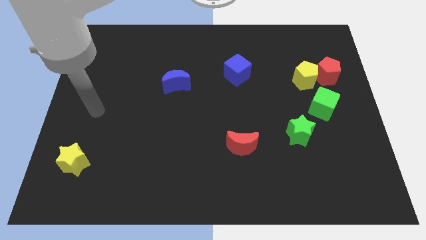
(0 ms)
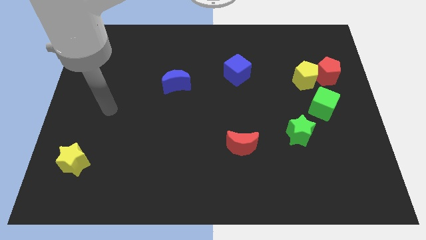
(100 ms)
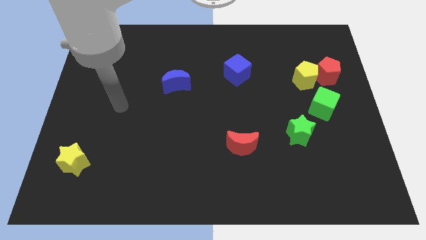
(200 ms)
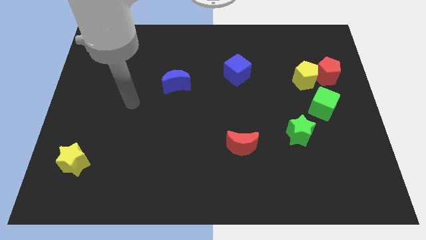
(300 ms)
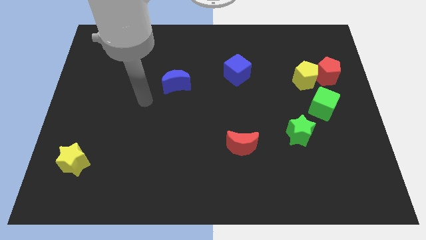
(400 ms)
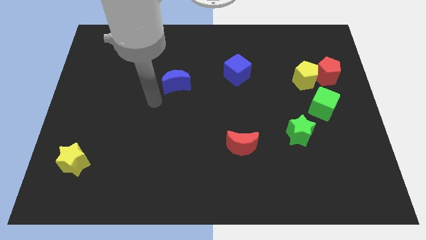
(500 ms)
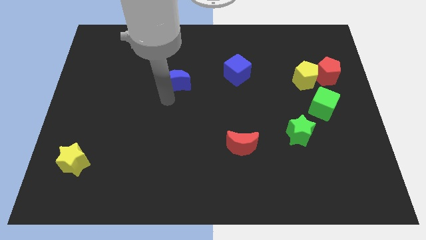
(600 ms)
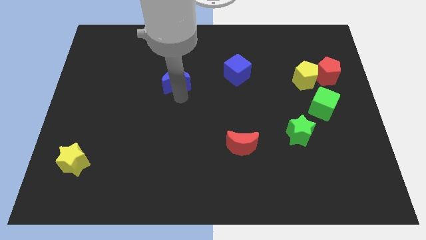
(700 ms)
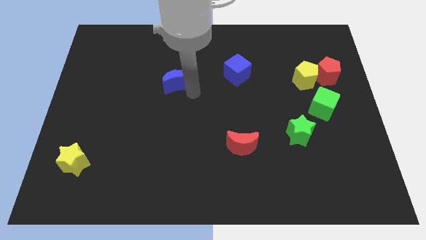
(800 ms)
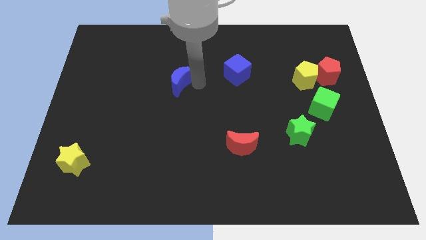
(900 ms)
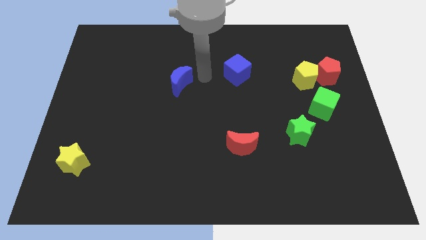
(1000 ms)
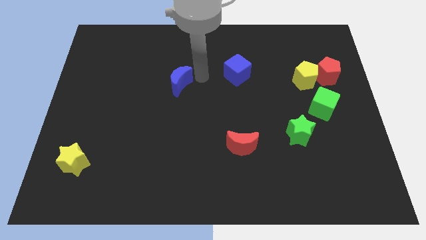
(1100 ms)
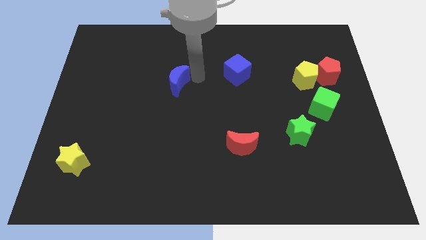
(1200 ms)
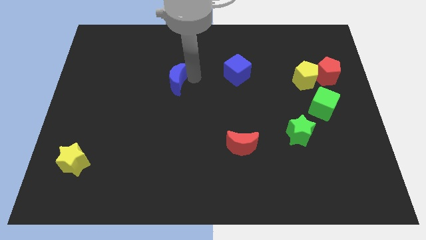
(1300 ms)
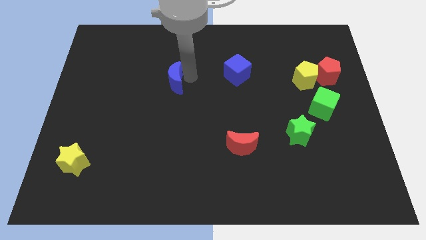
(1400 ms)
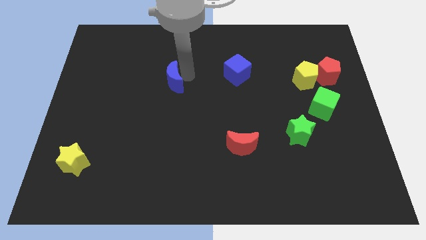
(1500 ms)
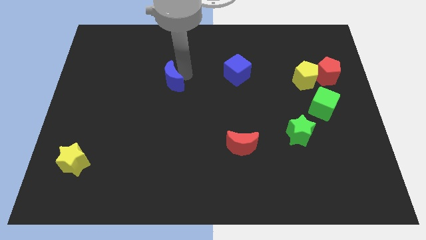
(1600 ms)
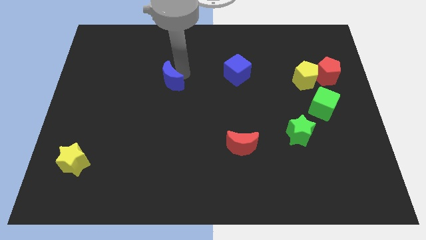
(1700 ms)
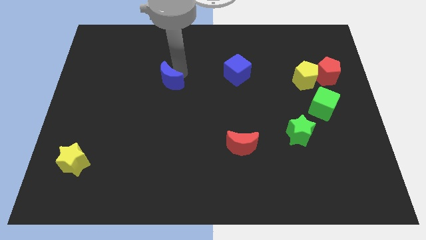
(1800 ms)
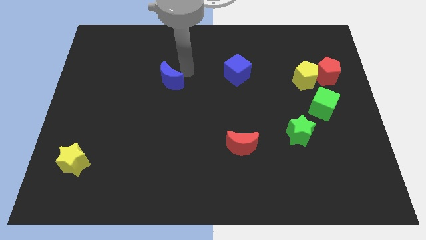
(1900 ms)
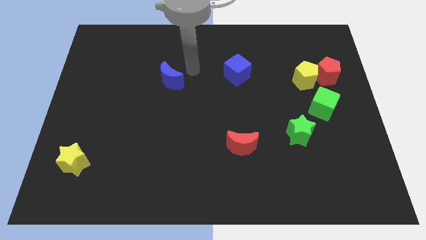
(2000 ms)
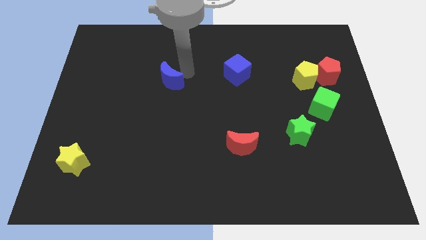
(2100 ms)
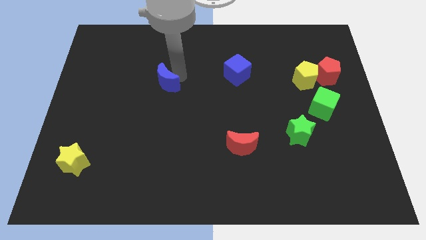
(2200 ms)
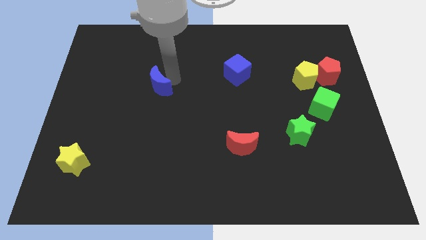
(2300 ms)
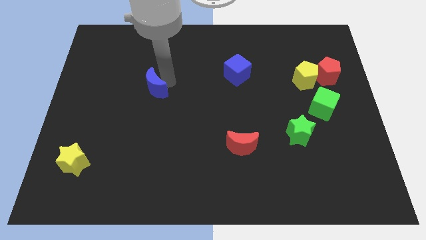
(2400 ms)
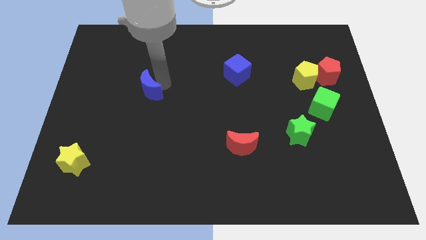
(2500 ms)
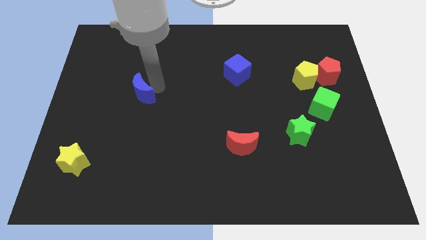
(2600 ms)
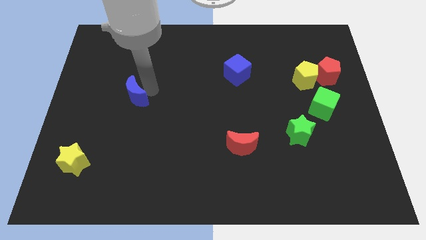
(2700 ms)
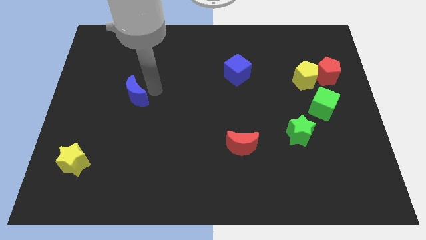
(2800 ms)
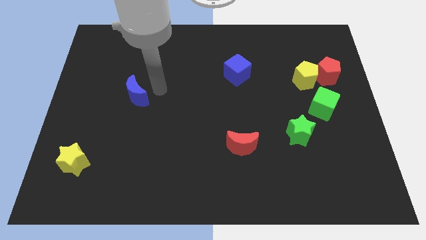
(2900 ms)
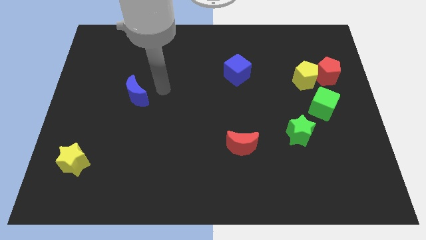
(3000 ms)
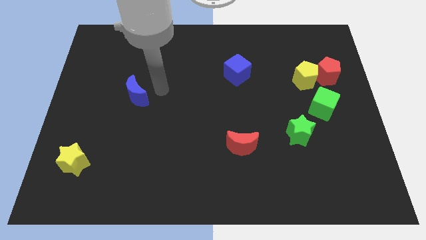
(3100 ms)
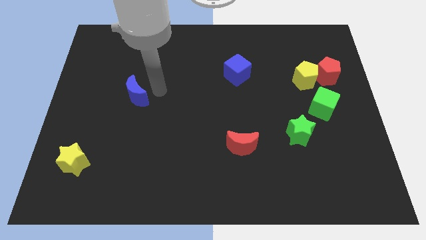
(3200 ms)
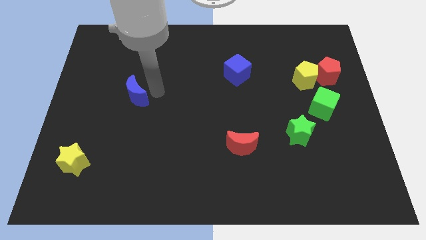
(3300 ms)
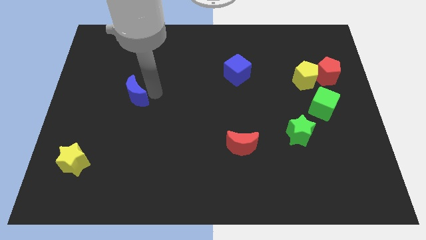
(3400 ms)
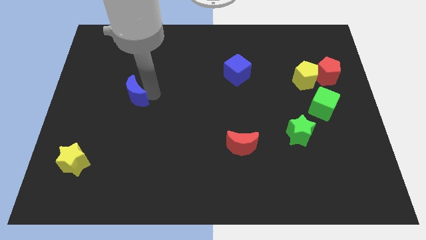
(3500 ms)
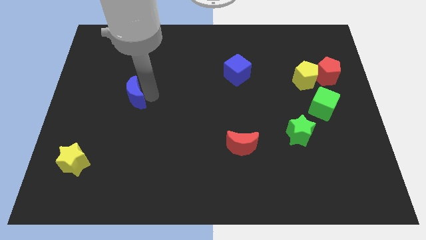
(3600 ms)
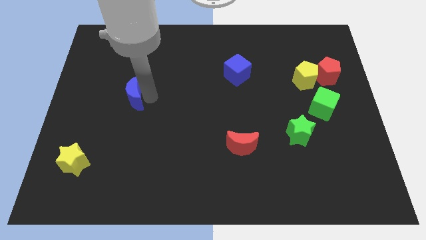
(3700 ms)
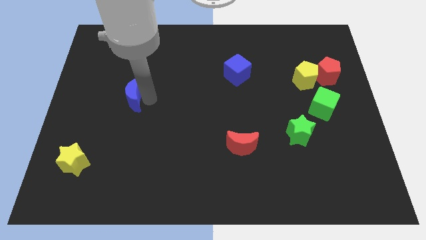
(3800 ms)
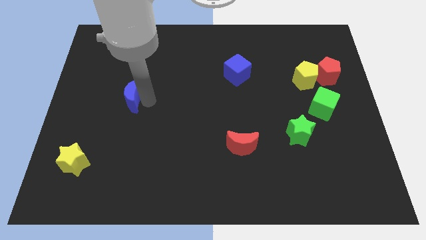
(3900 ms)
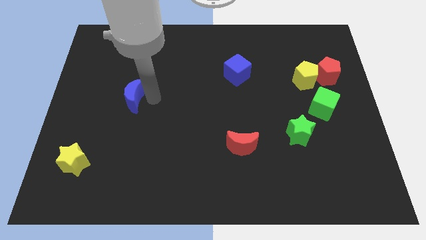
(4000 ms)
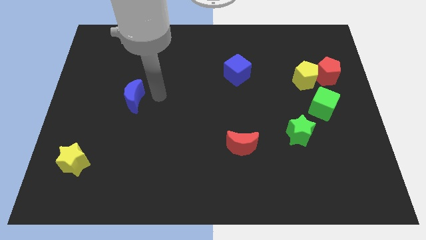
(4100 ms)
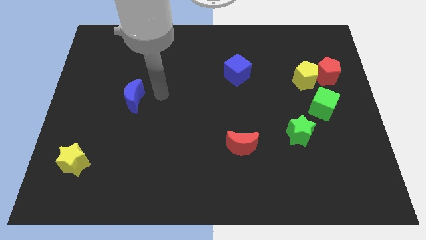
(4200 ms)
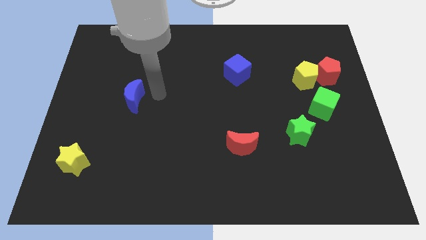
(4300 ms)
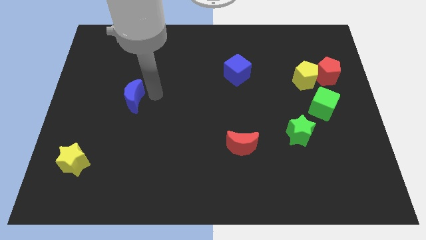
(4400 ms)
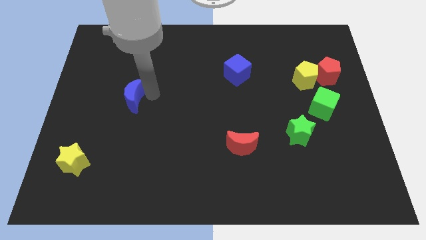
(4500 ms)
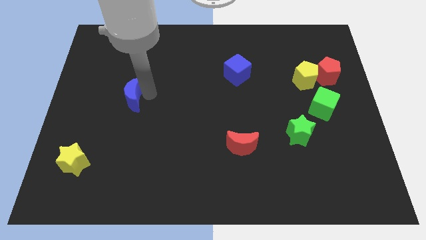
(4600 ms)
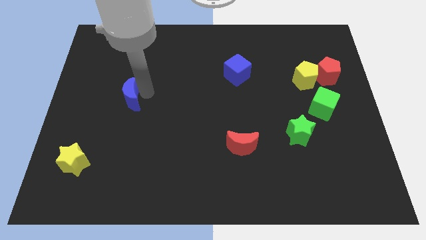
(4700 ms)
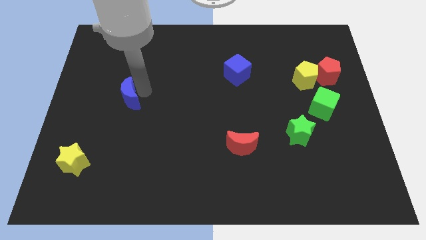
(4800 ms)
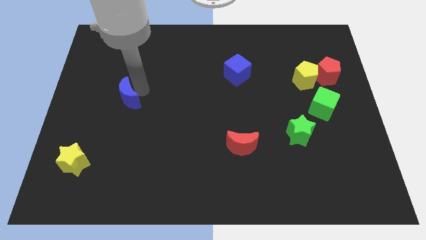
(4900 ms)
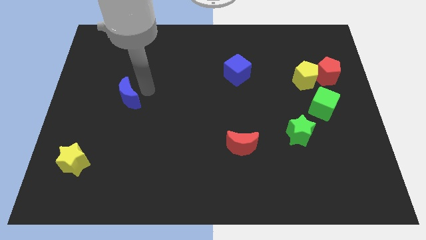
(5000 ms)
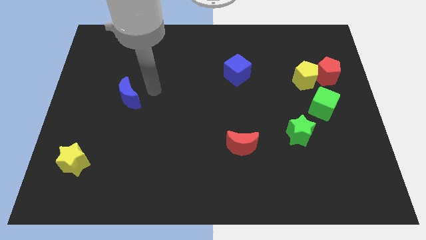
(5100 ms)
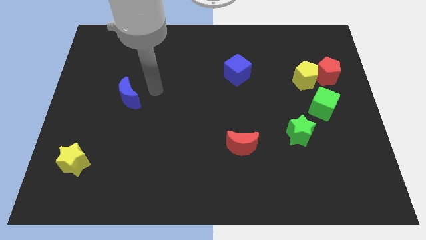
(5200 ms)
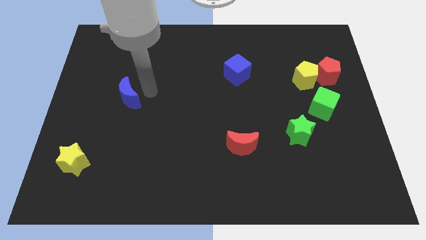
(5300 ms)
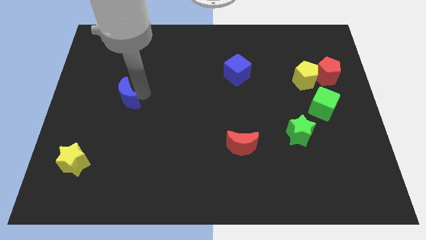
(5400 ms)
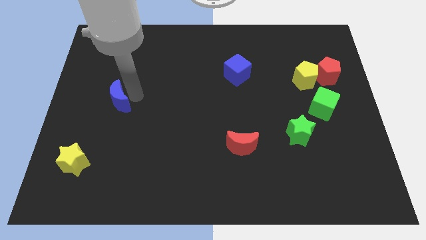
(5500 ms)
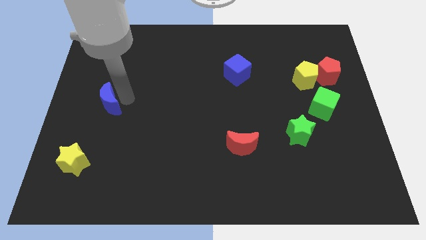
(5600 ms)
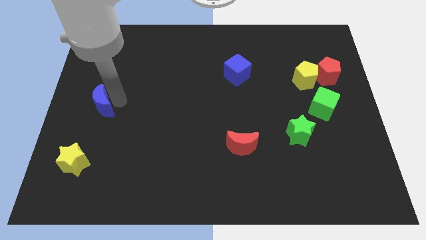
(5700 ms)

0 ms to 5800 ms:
slide the blue moon to the center left
